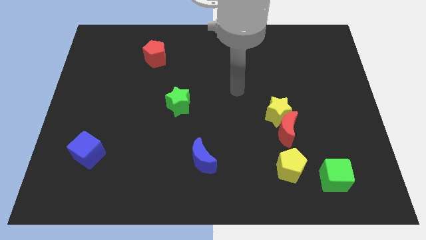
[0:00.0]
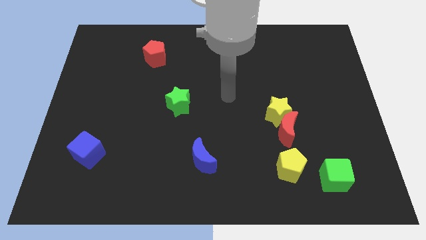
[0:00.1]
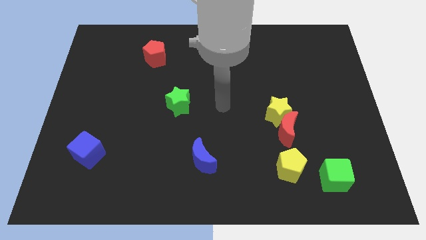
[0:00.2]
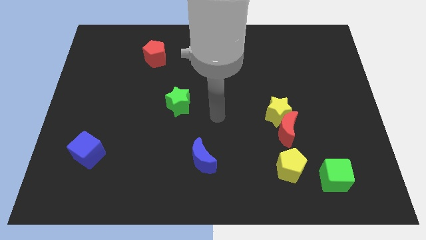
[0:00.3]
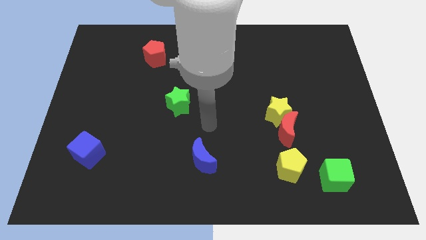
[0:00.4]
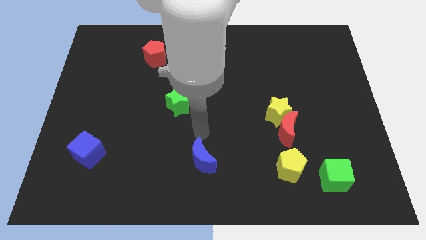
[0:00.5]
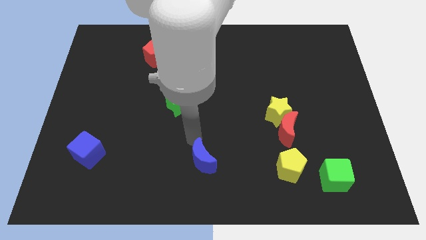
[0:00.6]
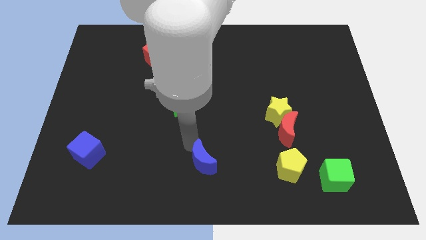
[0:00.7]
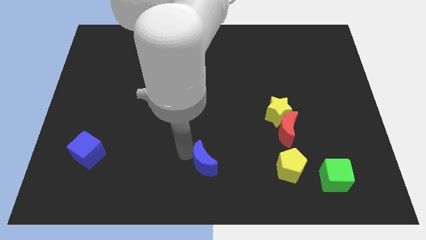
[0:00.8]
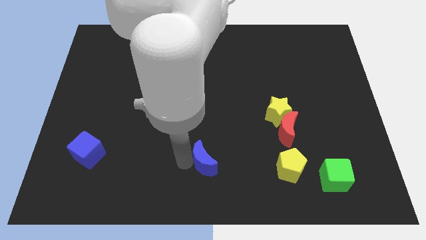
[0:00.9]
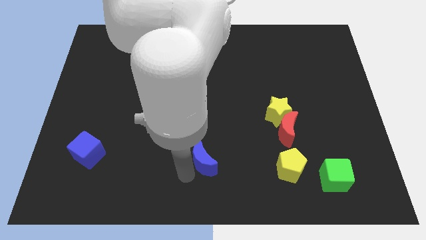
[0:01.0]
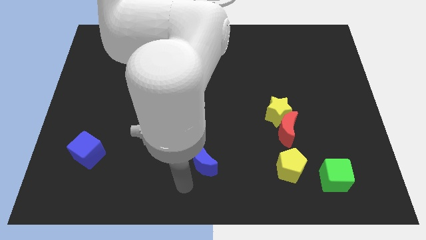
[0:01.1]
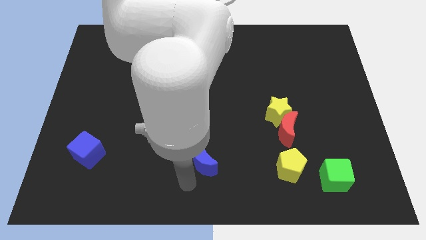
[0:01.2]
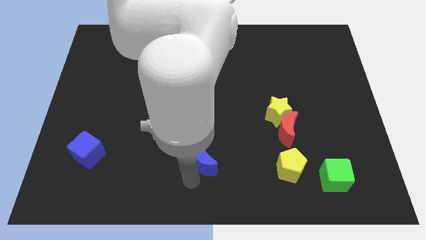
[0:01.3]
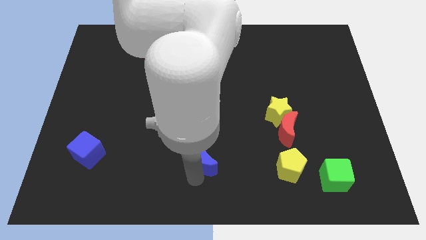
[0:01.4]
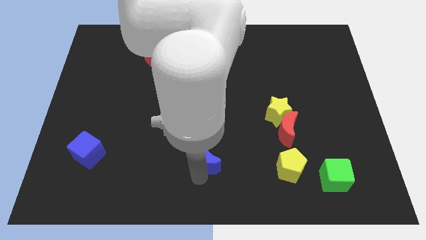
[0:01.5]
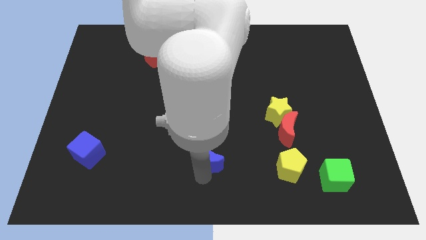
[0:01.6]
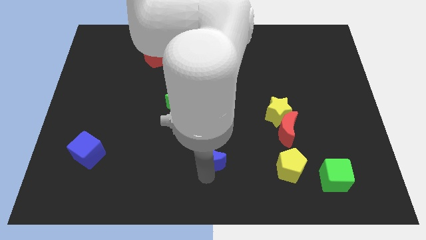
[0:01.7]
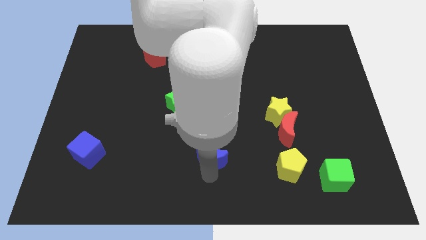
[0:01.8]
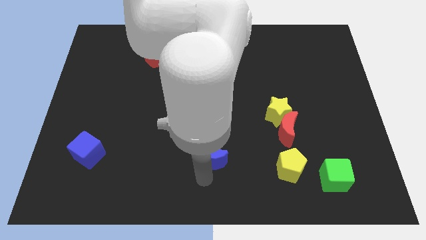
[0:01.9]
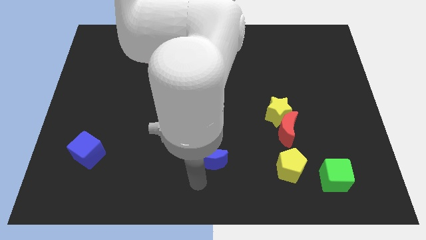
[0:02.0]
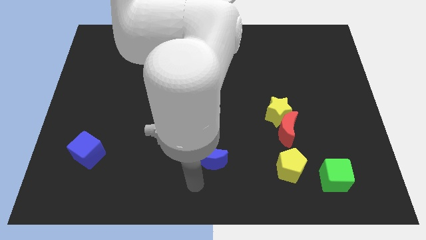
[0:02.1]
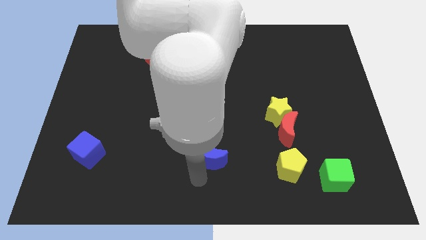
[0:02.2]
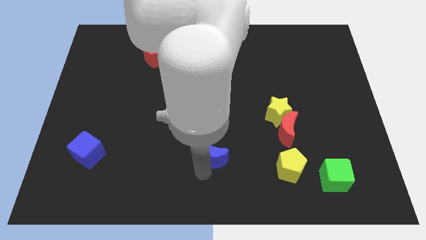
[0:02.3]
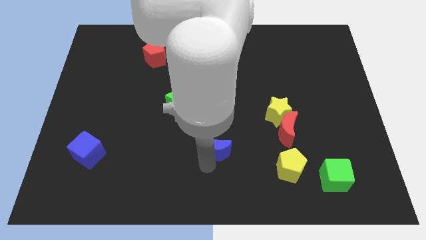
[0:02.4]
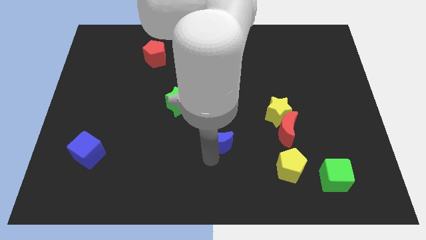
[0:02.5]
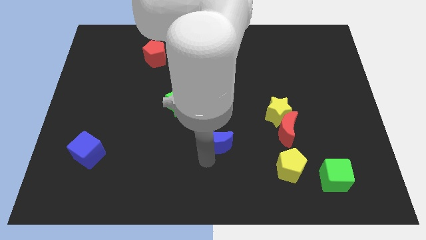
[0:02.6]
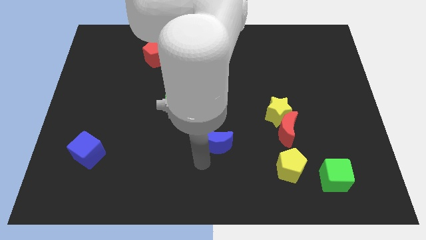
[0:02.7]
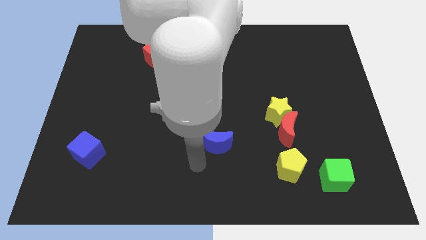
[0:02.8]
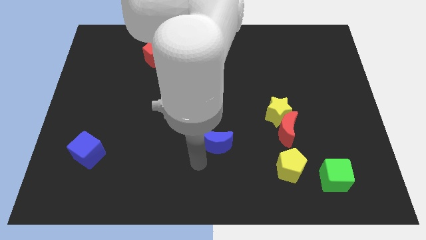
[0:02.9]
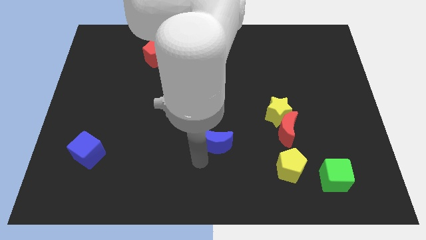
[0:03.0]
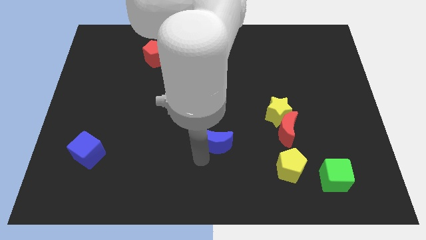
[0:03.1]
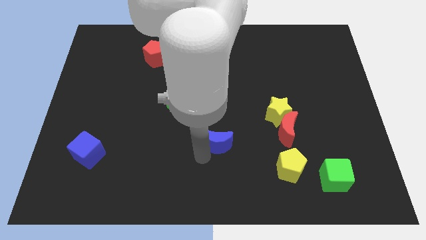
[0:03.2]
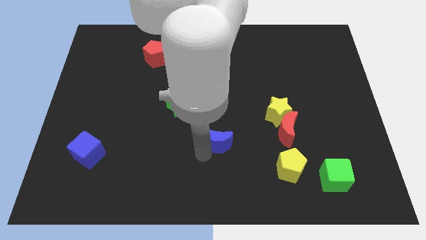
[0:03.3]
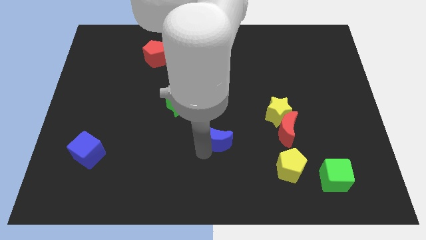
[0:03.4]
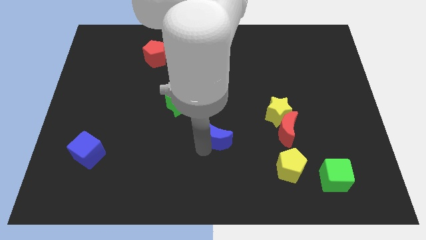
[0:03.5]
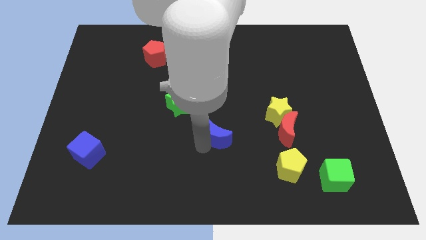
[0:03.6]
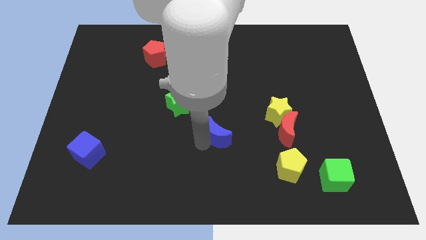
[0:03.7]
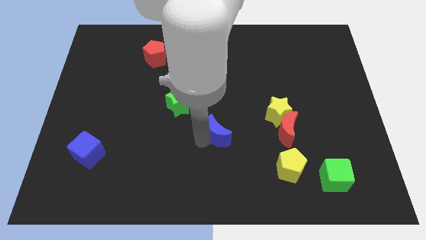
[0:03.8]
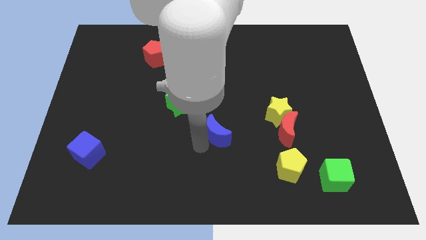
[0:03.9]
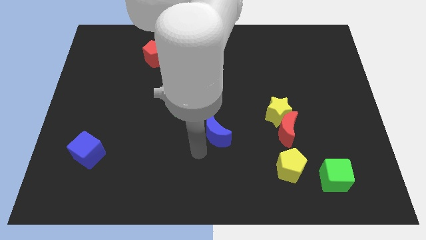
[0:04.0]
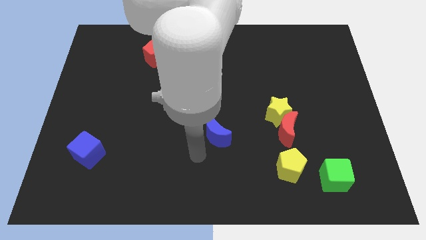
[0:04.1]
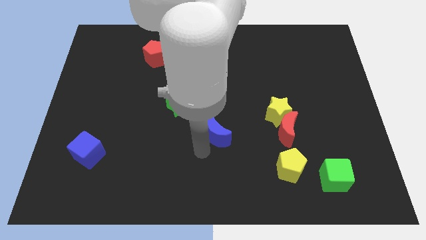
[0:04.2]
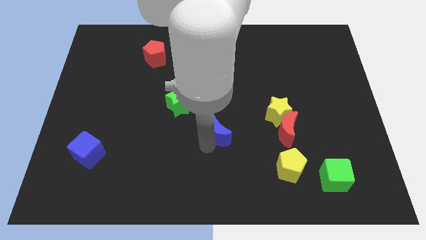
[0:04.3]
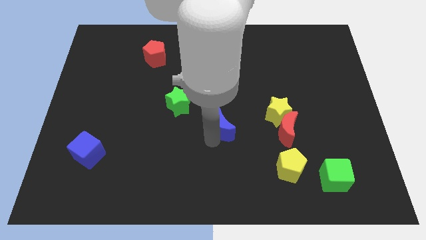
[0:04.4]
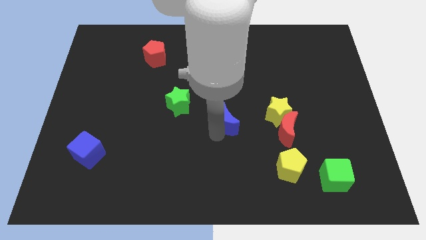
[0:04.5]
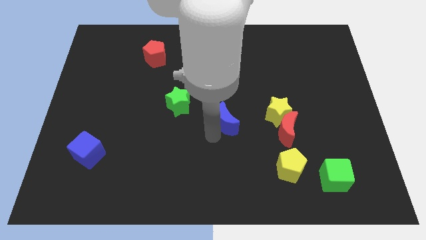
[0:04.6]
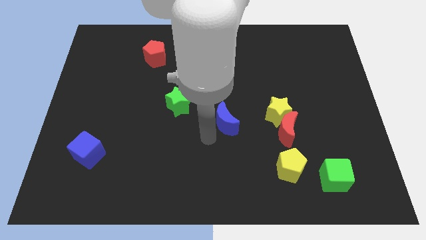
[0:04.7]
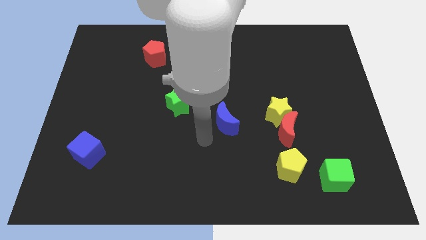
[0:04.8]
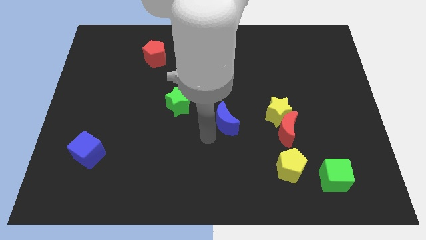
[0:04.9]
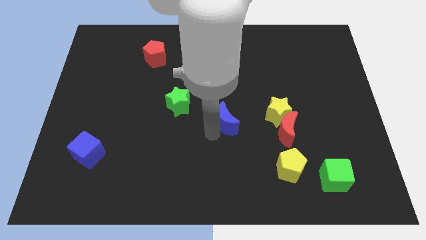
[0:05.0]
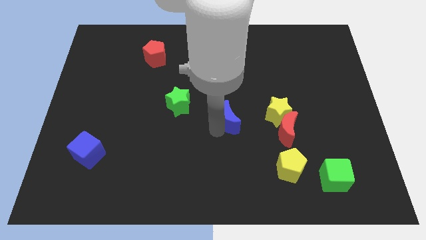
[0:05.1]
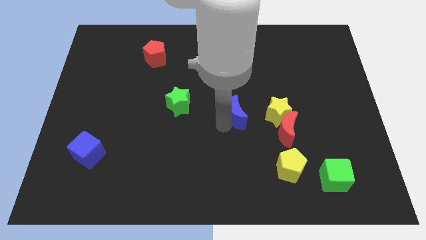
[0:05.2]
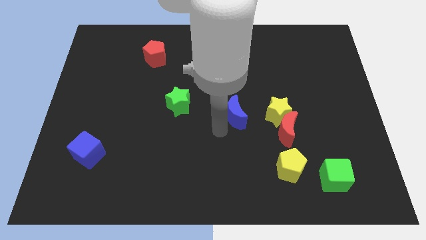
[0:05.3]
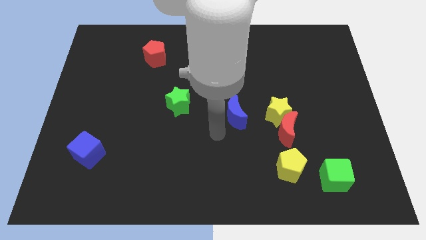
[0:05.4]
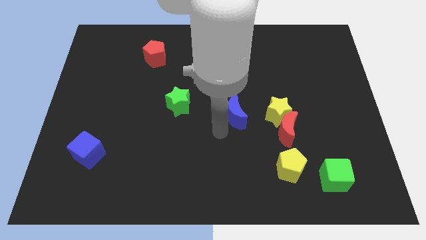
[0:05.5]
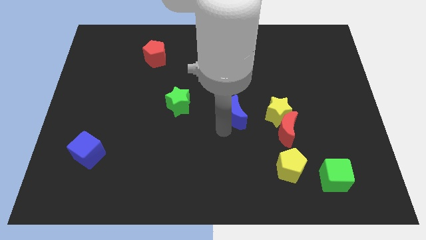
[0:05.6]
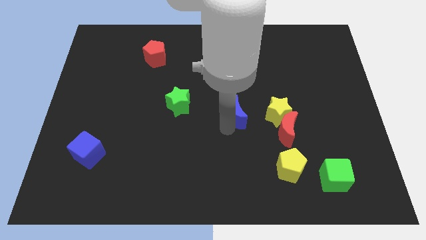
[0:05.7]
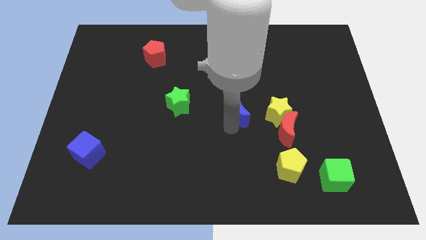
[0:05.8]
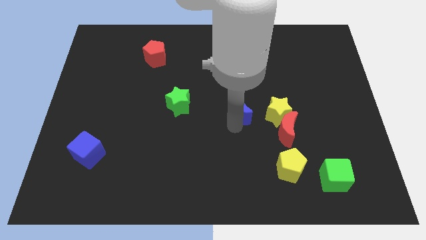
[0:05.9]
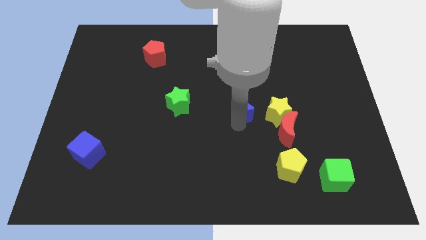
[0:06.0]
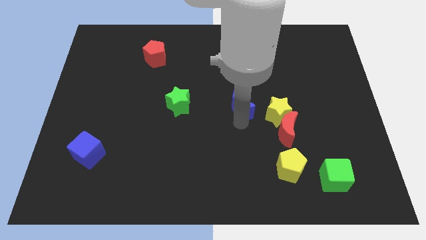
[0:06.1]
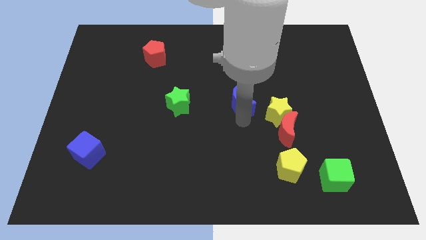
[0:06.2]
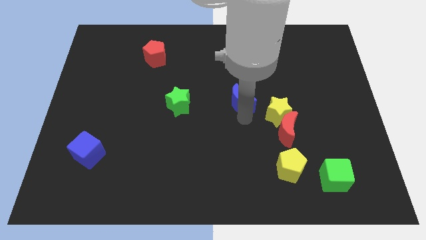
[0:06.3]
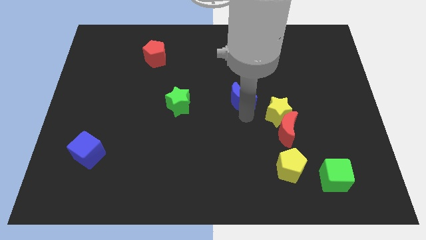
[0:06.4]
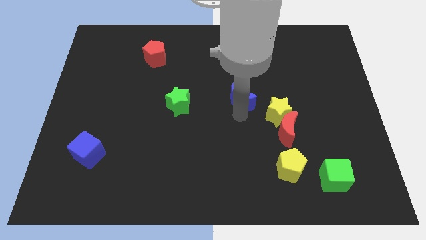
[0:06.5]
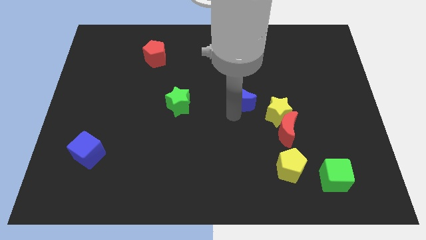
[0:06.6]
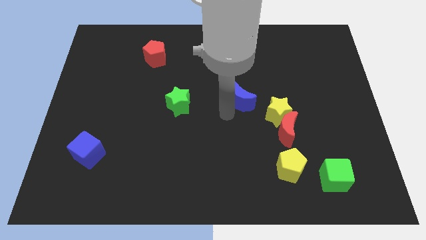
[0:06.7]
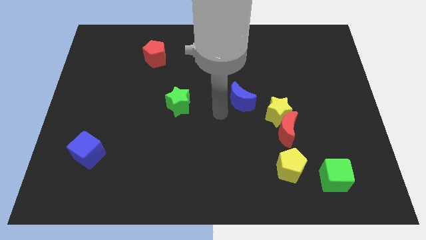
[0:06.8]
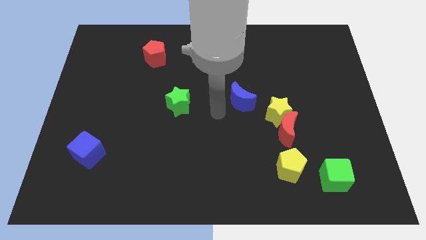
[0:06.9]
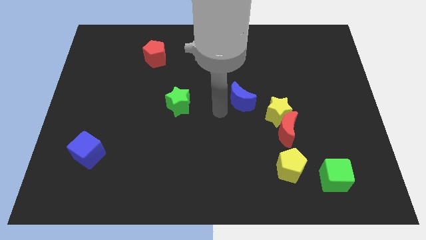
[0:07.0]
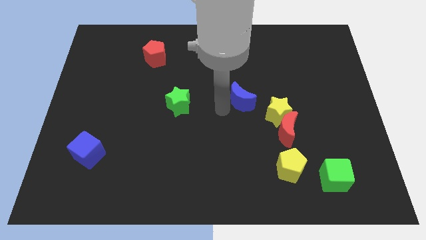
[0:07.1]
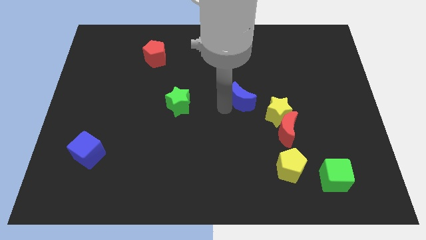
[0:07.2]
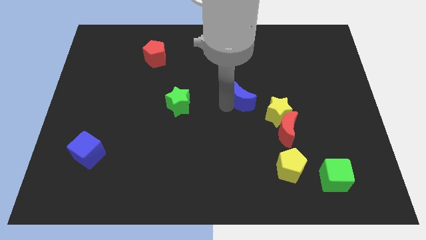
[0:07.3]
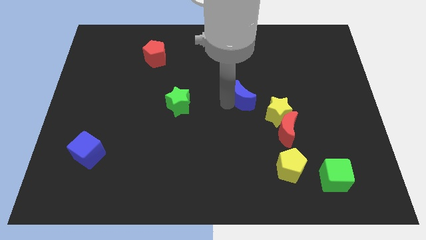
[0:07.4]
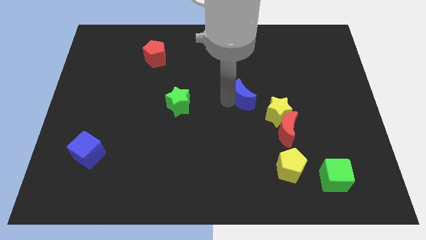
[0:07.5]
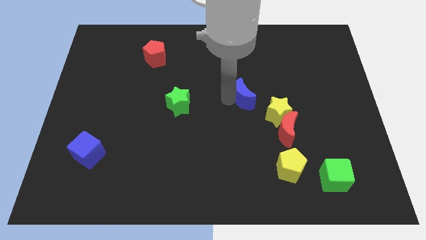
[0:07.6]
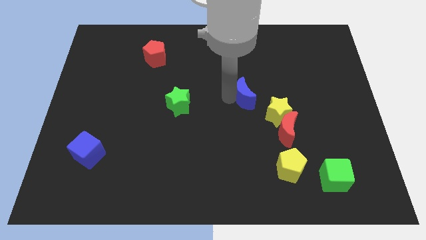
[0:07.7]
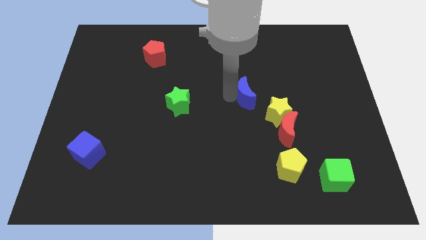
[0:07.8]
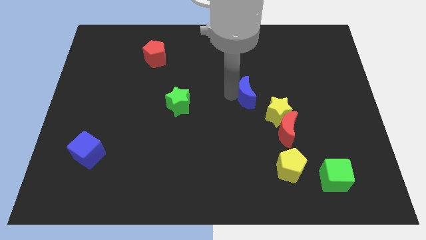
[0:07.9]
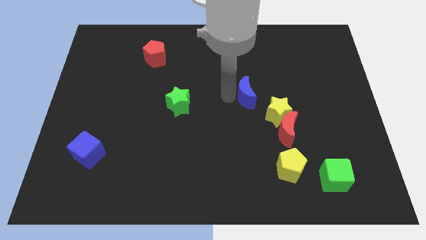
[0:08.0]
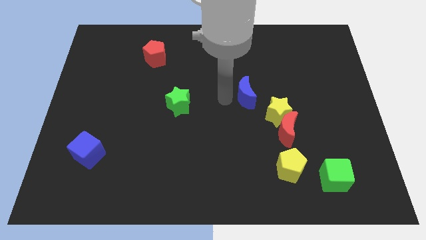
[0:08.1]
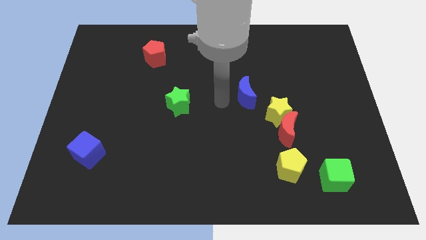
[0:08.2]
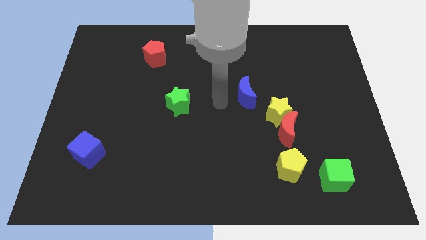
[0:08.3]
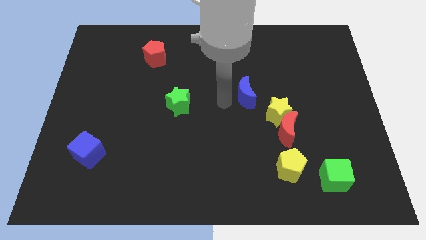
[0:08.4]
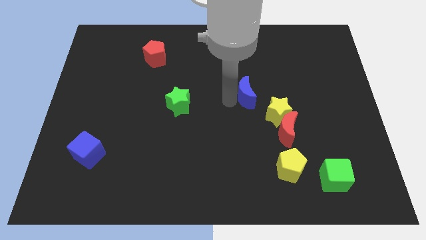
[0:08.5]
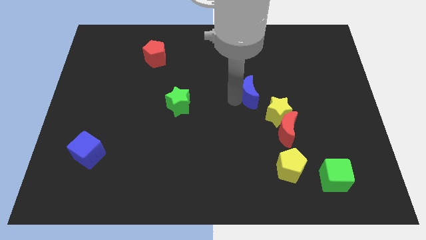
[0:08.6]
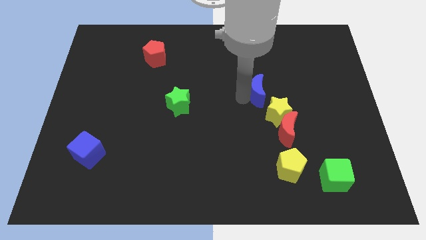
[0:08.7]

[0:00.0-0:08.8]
slide the blue moon up and then right
